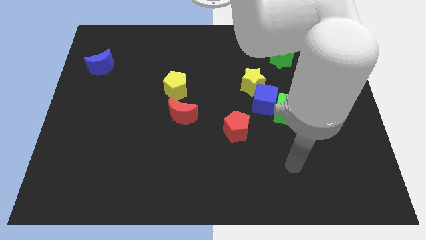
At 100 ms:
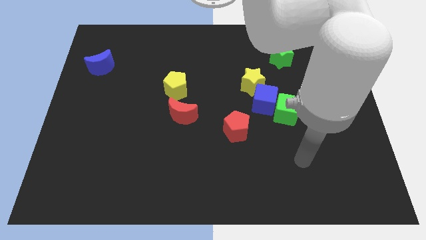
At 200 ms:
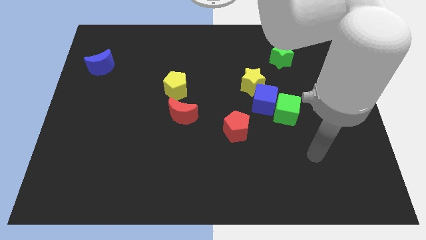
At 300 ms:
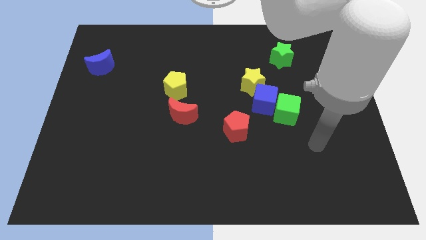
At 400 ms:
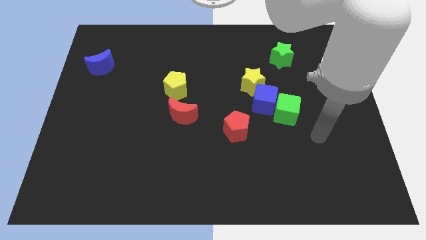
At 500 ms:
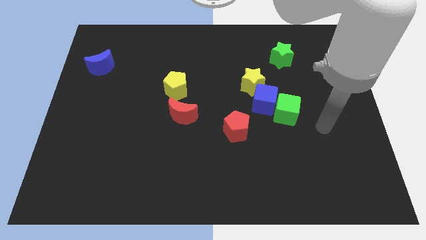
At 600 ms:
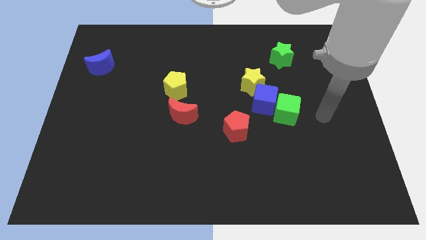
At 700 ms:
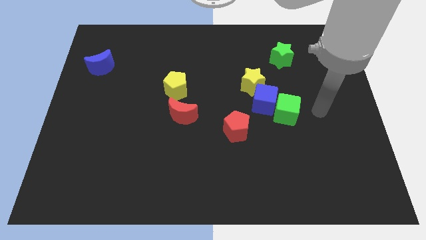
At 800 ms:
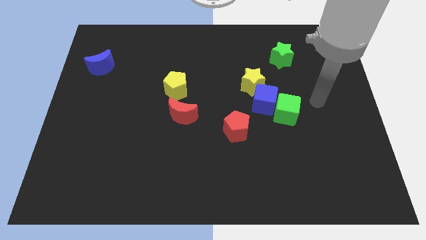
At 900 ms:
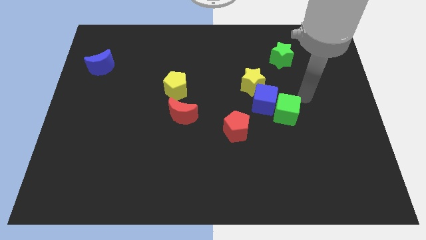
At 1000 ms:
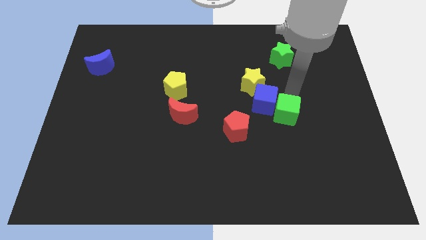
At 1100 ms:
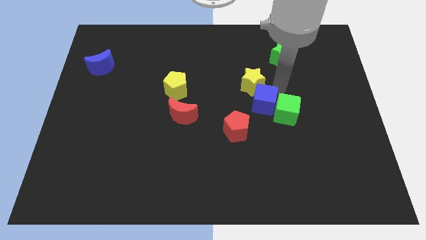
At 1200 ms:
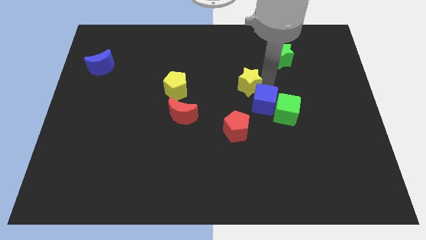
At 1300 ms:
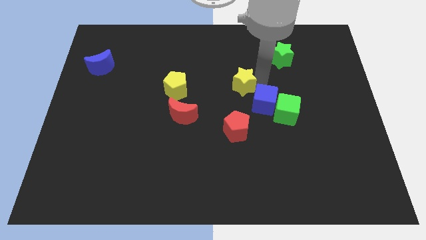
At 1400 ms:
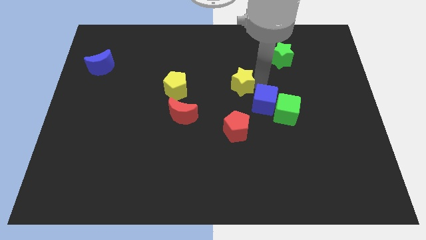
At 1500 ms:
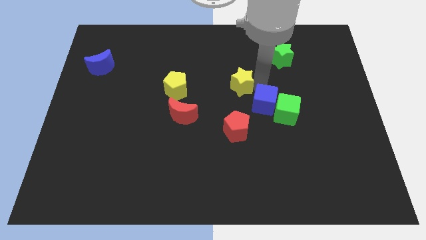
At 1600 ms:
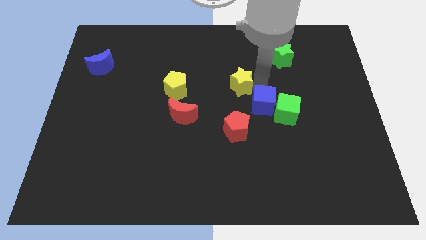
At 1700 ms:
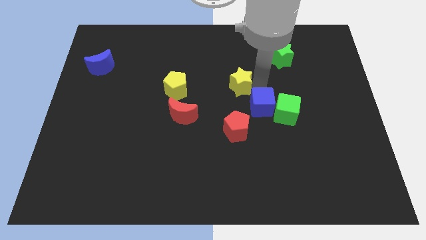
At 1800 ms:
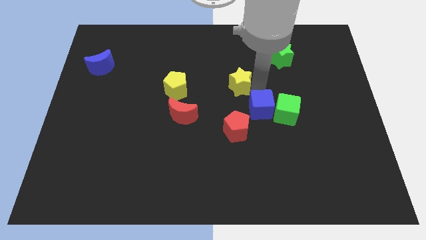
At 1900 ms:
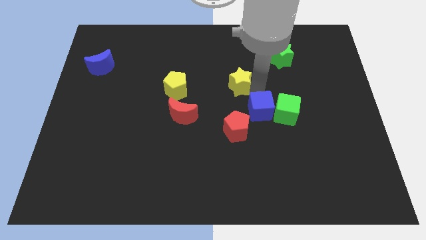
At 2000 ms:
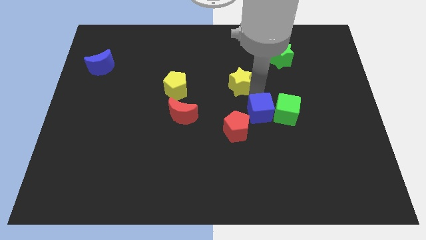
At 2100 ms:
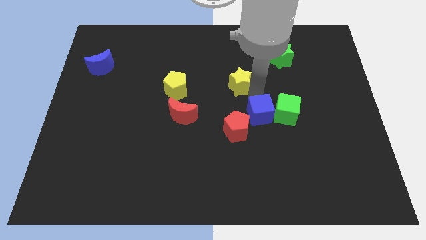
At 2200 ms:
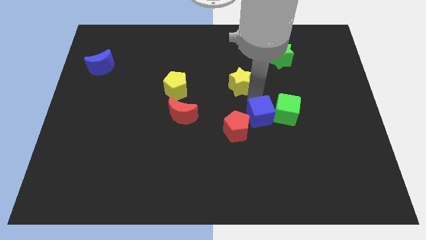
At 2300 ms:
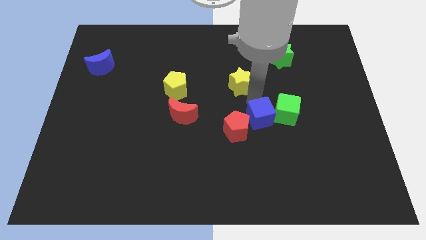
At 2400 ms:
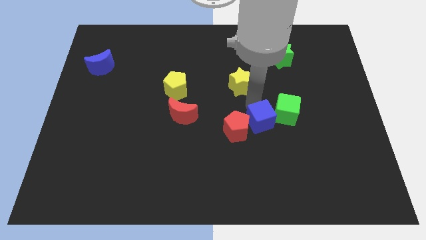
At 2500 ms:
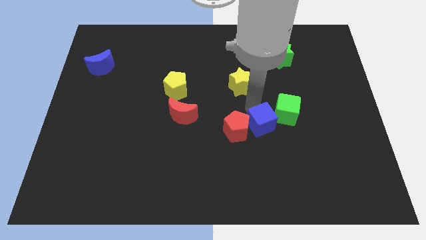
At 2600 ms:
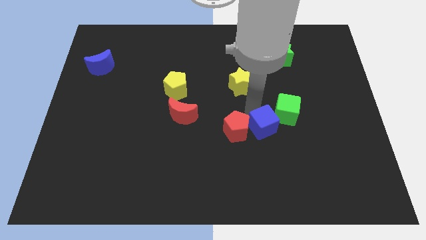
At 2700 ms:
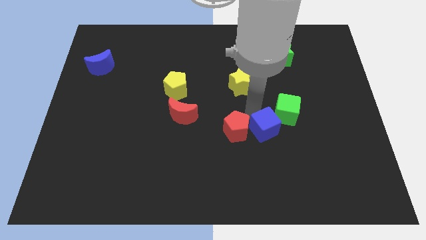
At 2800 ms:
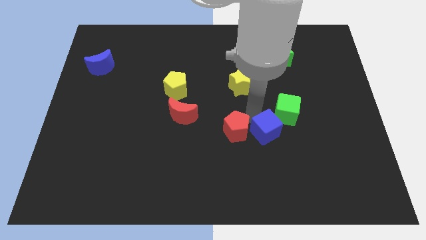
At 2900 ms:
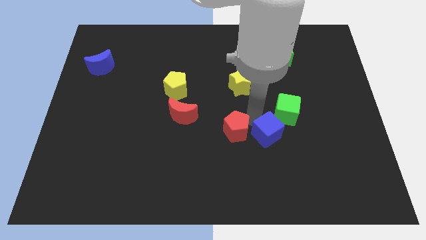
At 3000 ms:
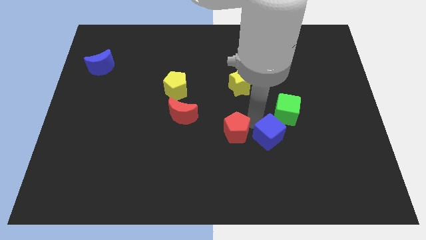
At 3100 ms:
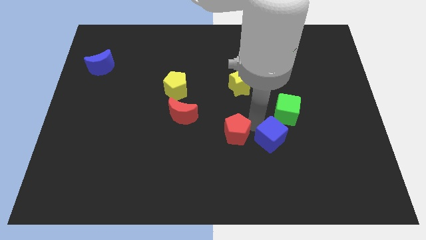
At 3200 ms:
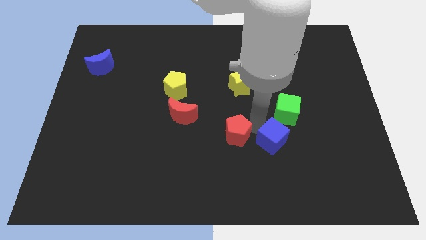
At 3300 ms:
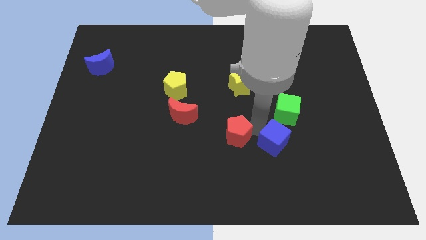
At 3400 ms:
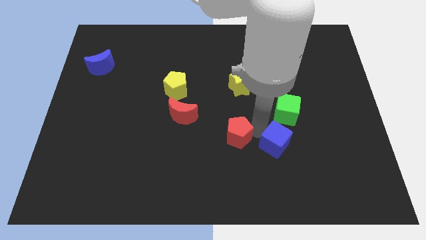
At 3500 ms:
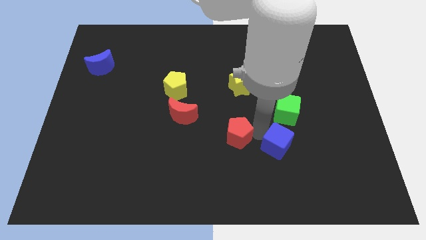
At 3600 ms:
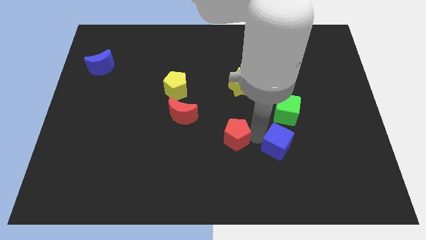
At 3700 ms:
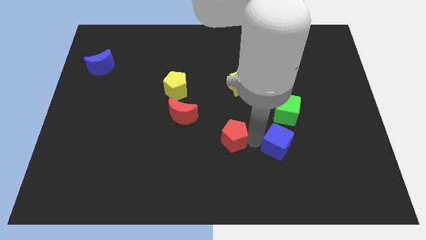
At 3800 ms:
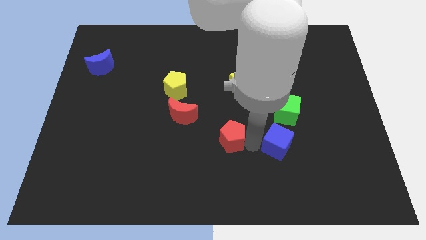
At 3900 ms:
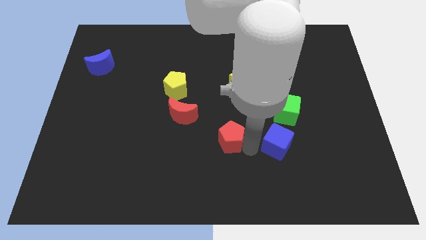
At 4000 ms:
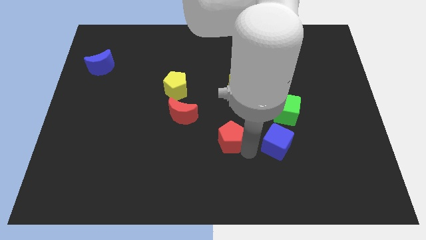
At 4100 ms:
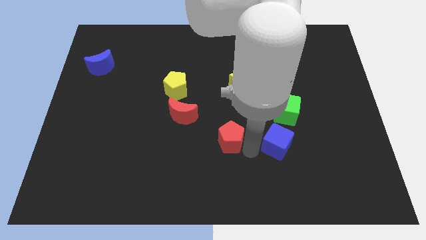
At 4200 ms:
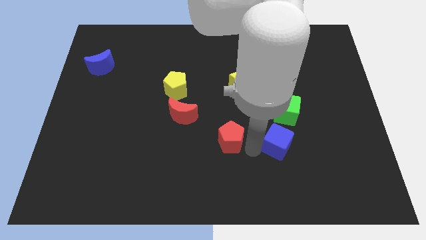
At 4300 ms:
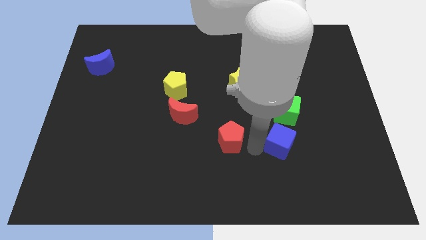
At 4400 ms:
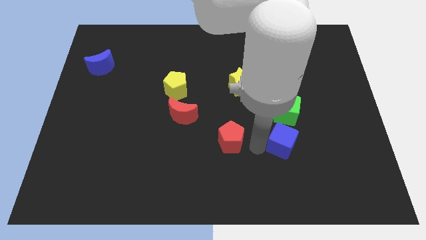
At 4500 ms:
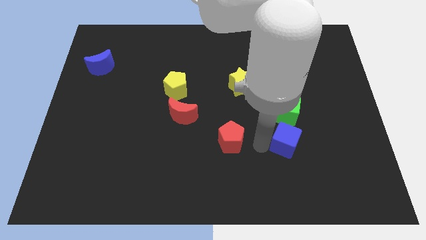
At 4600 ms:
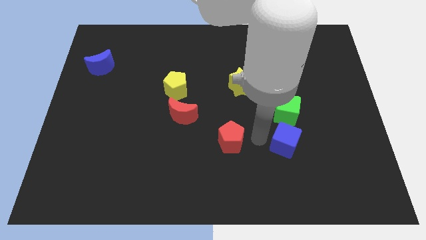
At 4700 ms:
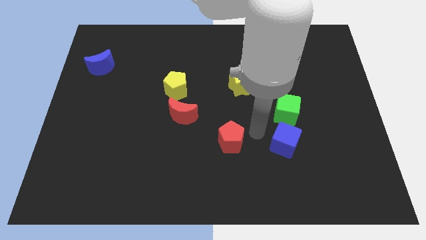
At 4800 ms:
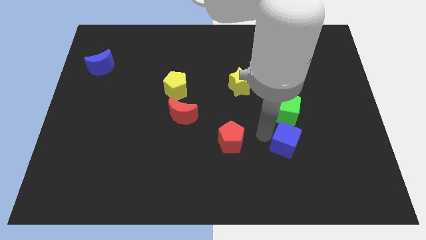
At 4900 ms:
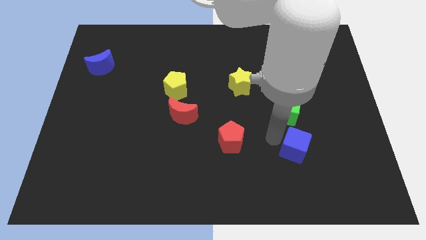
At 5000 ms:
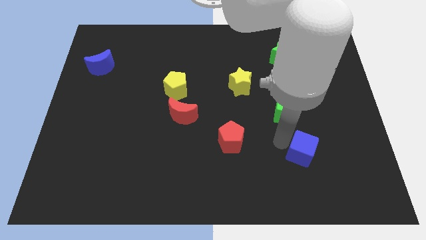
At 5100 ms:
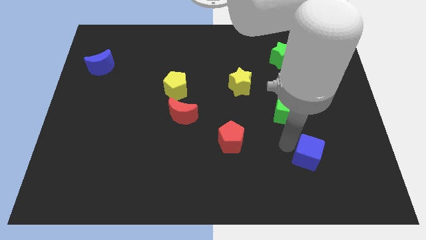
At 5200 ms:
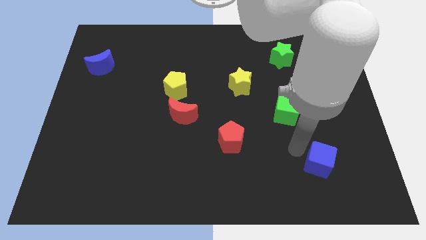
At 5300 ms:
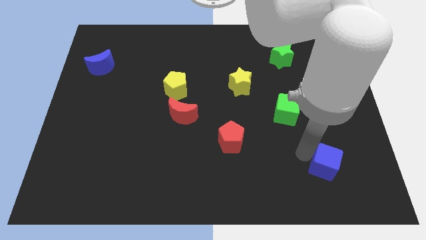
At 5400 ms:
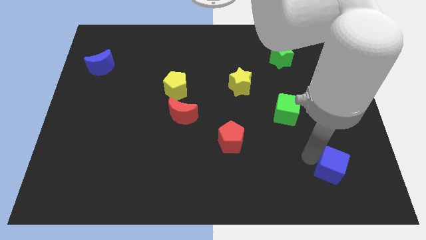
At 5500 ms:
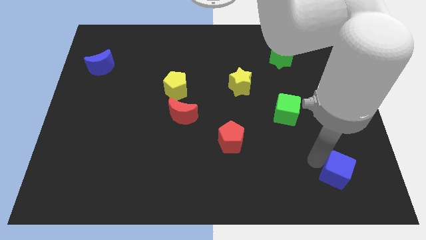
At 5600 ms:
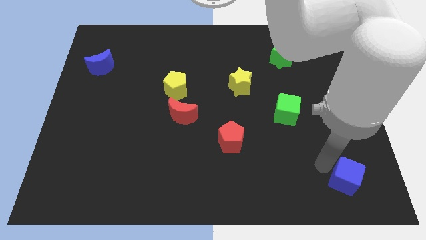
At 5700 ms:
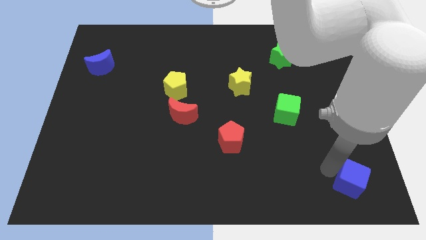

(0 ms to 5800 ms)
put the blue cube to the bottom right corner

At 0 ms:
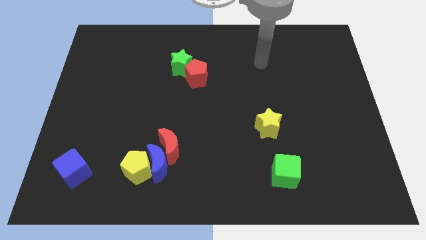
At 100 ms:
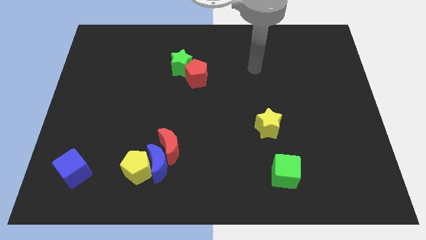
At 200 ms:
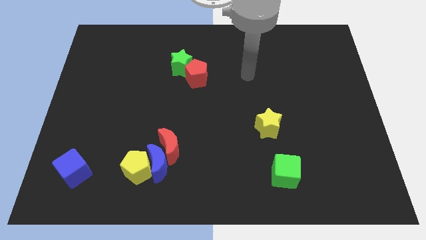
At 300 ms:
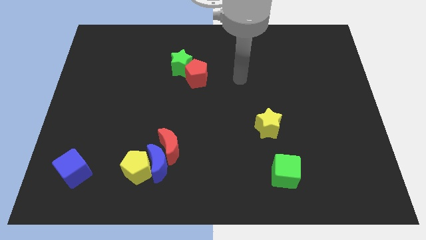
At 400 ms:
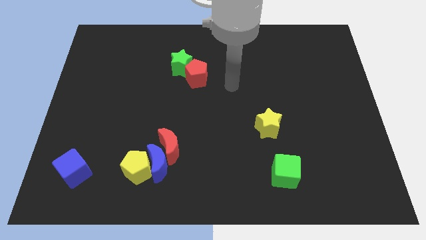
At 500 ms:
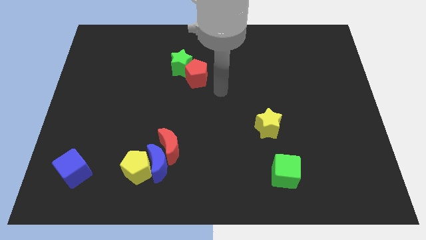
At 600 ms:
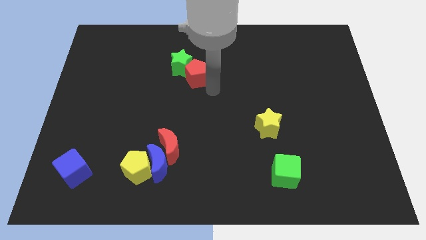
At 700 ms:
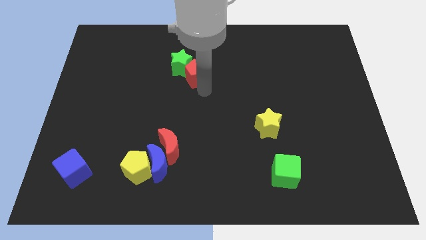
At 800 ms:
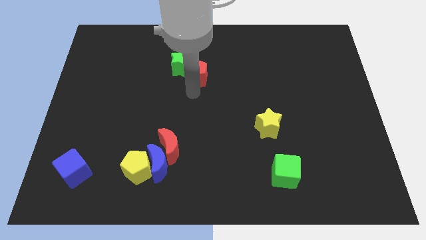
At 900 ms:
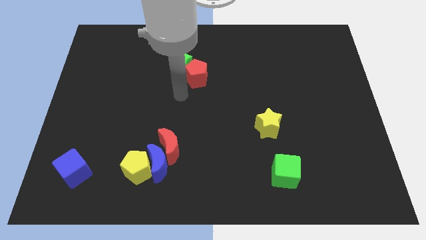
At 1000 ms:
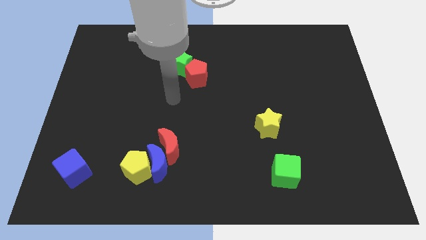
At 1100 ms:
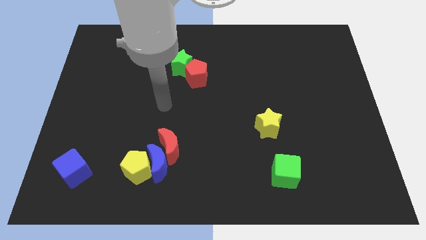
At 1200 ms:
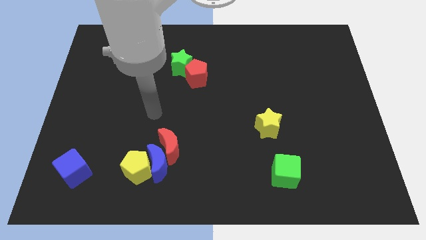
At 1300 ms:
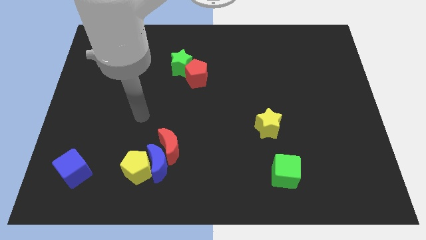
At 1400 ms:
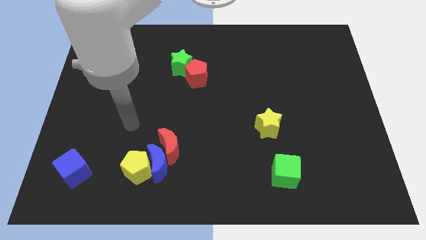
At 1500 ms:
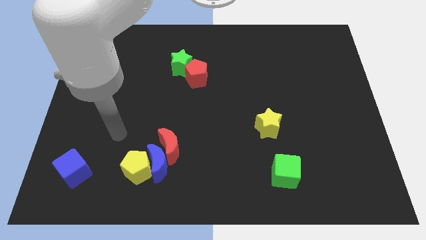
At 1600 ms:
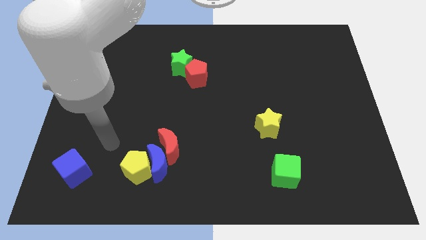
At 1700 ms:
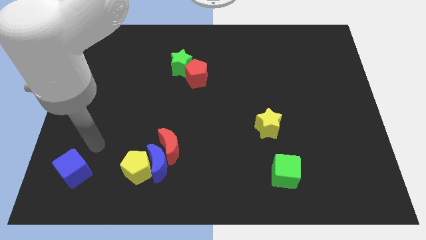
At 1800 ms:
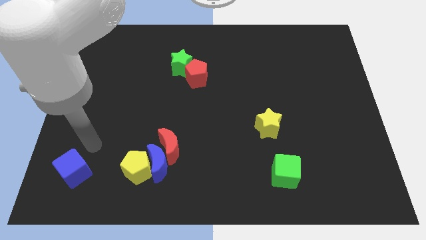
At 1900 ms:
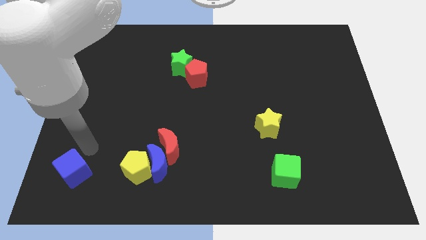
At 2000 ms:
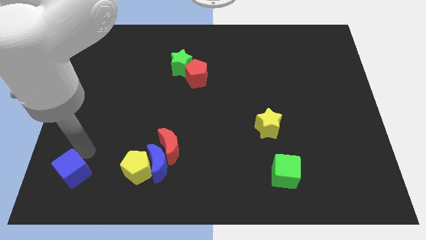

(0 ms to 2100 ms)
put the blue cube to the bottom left of the board
